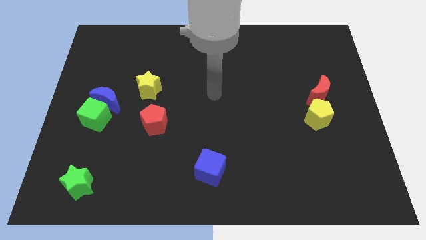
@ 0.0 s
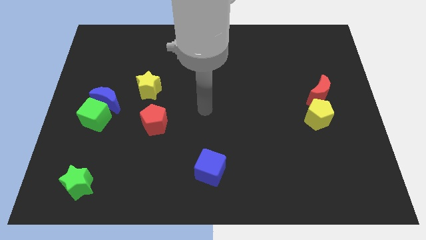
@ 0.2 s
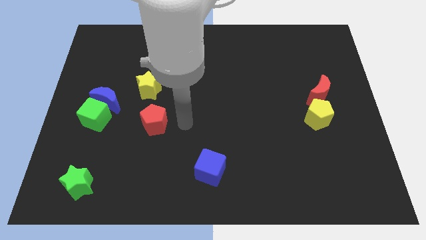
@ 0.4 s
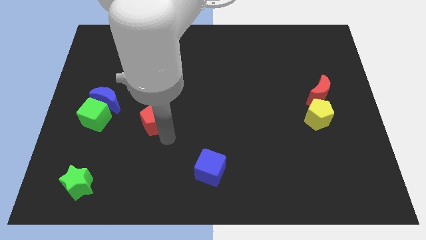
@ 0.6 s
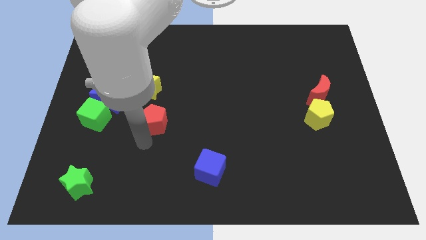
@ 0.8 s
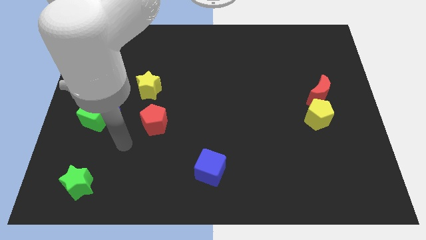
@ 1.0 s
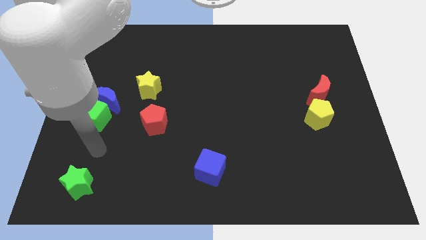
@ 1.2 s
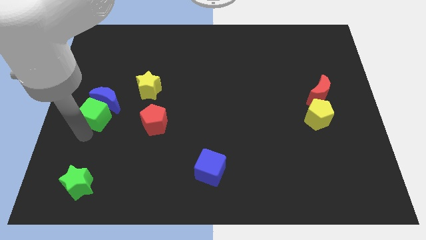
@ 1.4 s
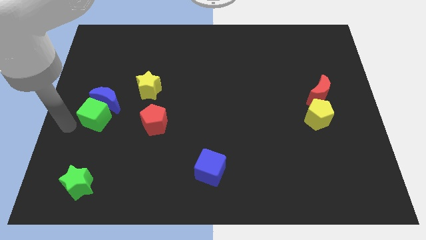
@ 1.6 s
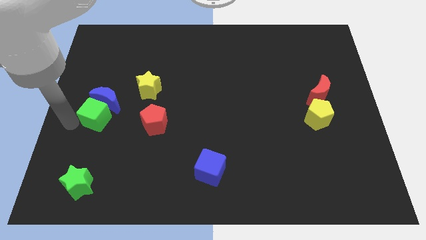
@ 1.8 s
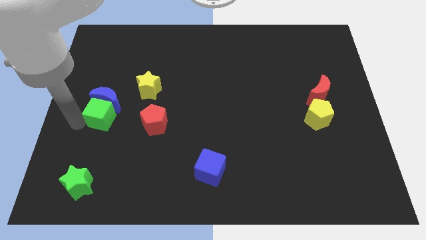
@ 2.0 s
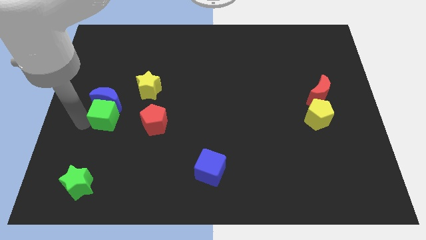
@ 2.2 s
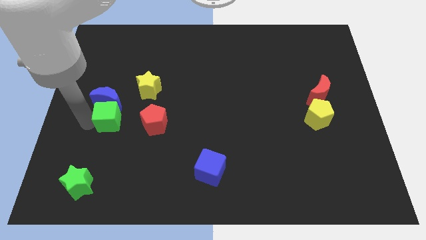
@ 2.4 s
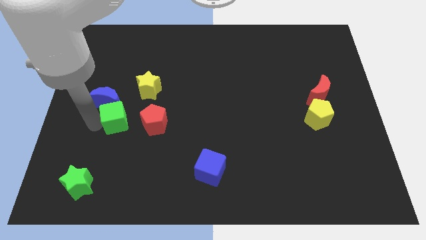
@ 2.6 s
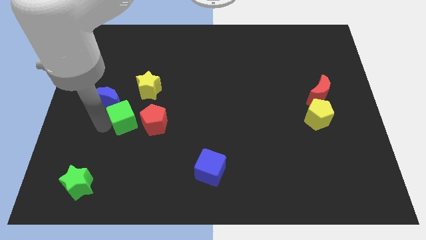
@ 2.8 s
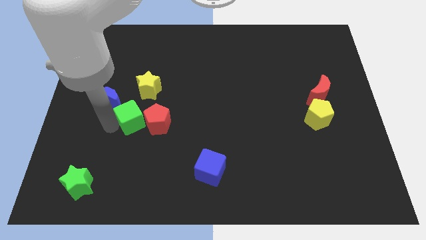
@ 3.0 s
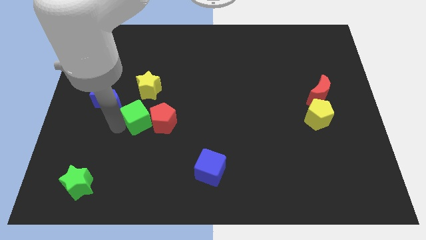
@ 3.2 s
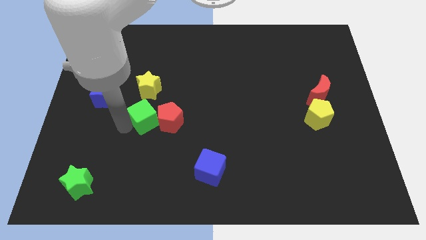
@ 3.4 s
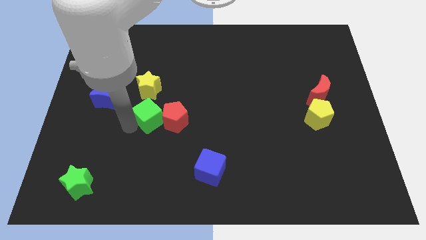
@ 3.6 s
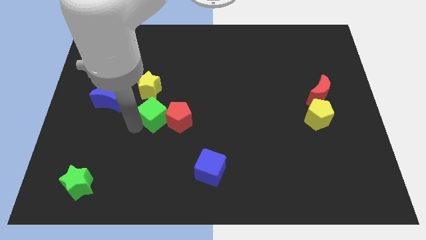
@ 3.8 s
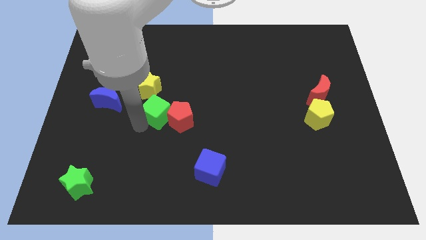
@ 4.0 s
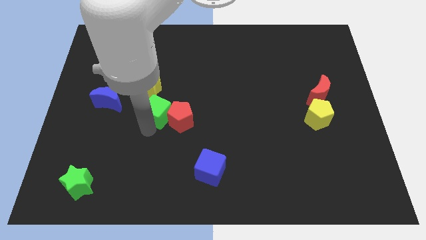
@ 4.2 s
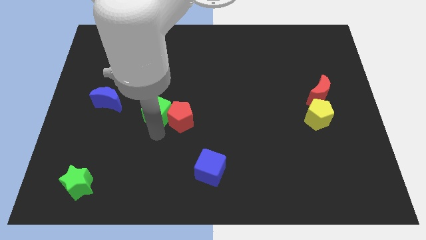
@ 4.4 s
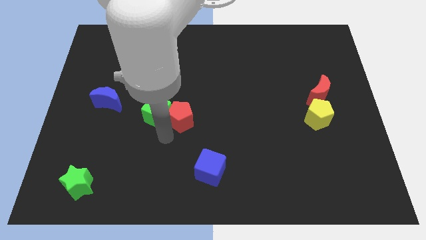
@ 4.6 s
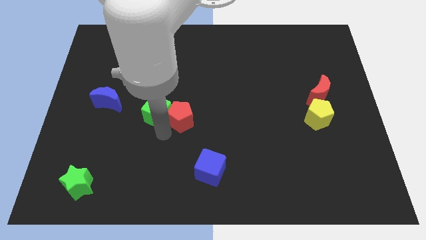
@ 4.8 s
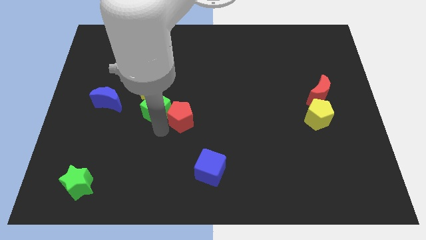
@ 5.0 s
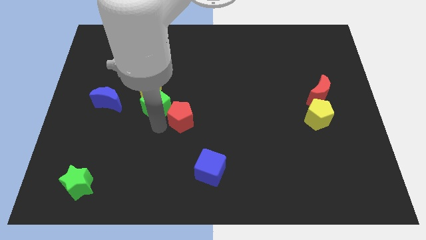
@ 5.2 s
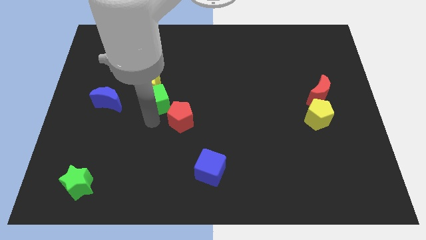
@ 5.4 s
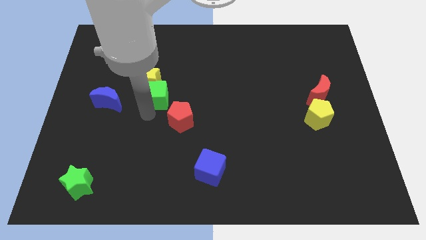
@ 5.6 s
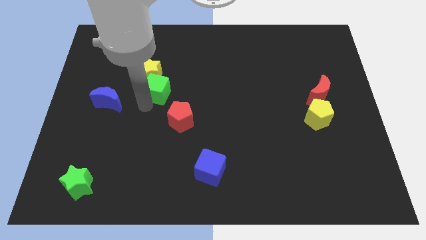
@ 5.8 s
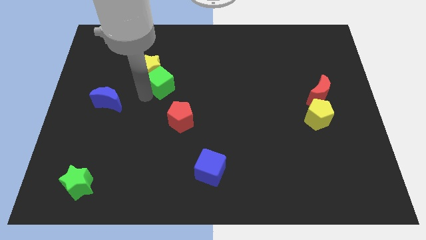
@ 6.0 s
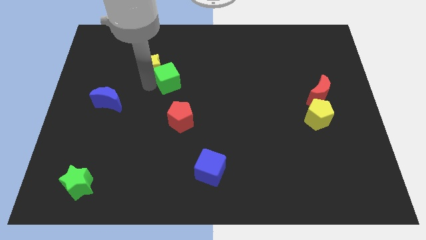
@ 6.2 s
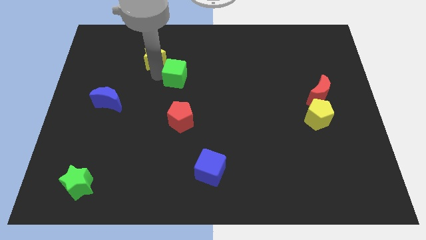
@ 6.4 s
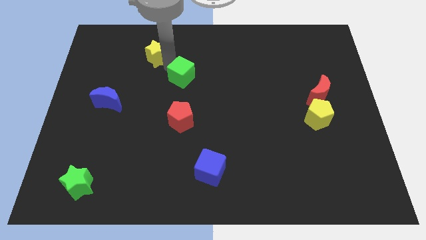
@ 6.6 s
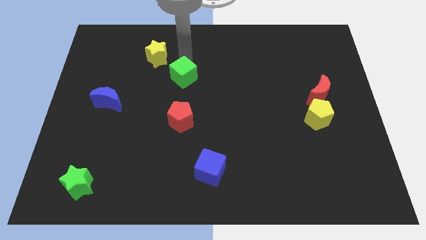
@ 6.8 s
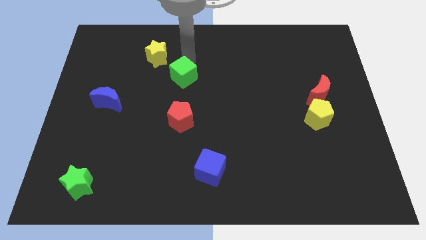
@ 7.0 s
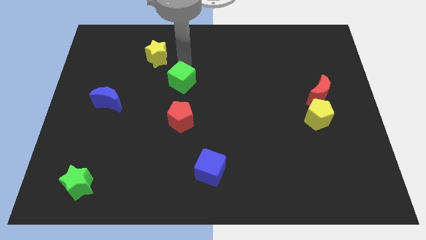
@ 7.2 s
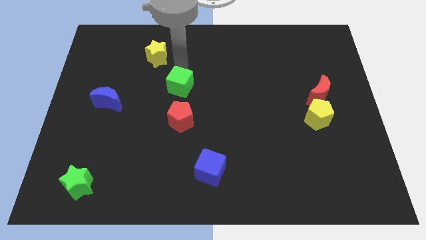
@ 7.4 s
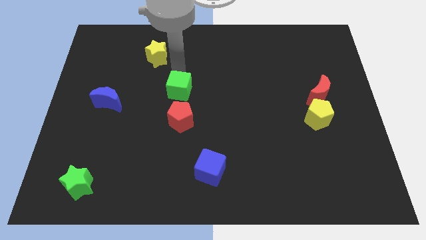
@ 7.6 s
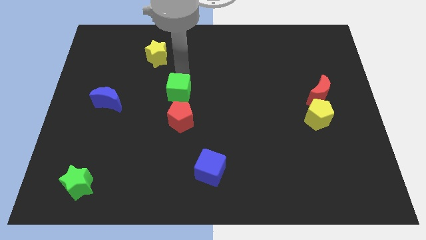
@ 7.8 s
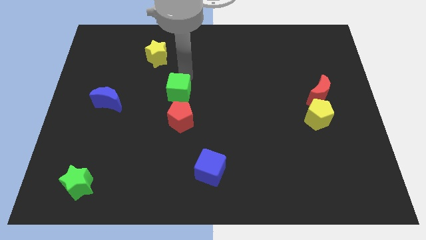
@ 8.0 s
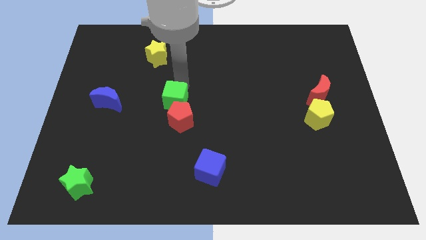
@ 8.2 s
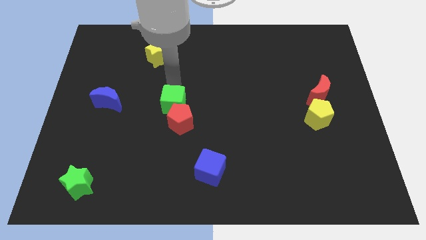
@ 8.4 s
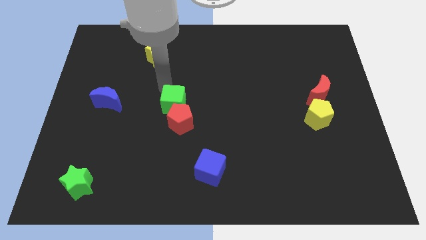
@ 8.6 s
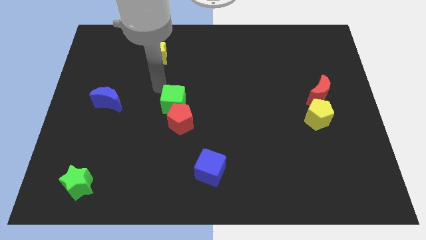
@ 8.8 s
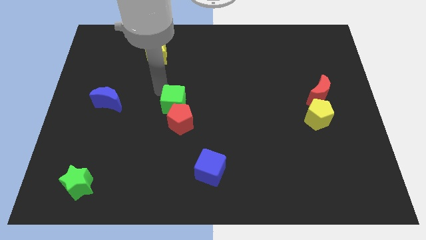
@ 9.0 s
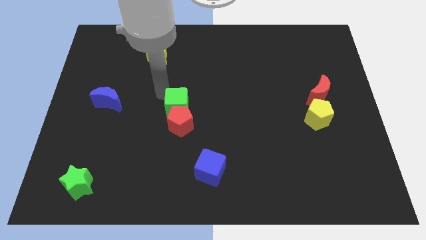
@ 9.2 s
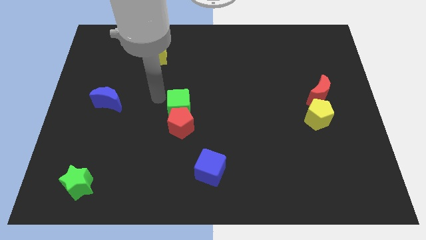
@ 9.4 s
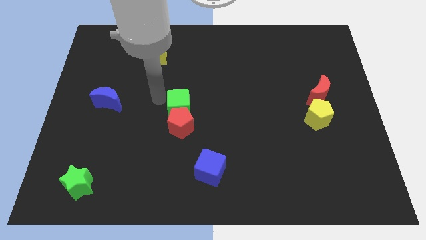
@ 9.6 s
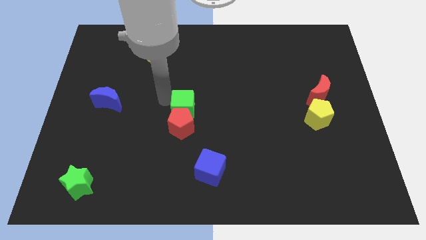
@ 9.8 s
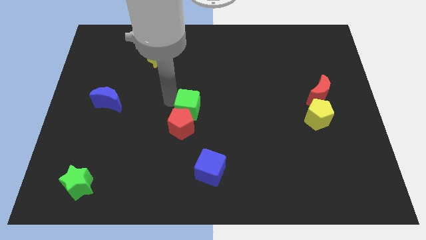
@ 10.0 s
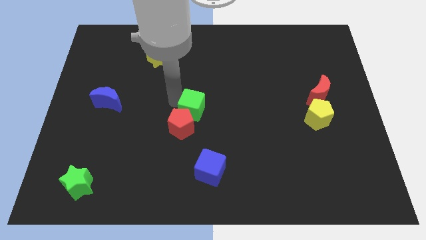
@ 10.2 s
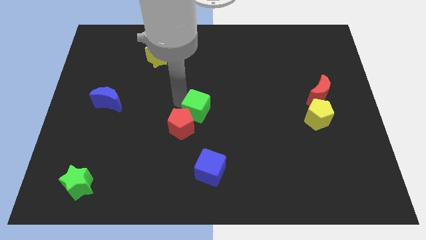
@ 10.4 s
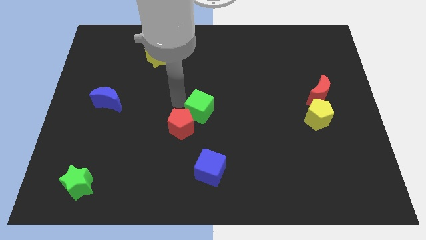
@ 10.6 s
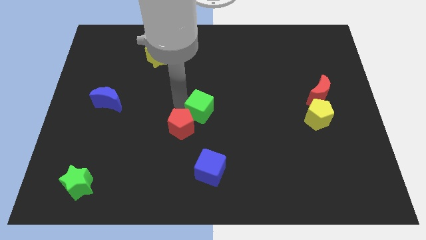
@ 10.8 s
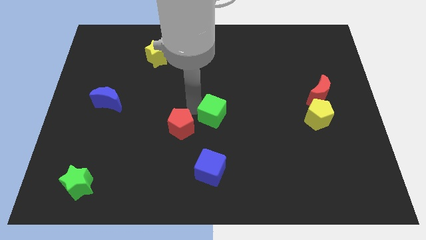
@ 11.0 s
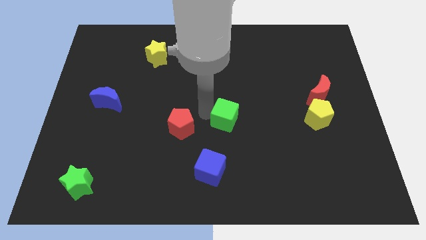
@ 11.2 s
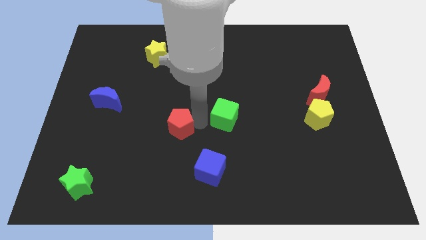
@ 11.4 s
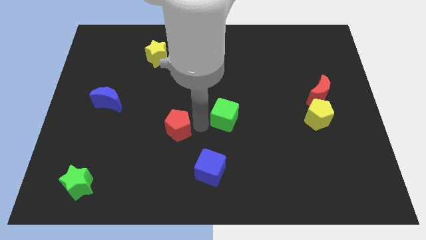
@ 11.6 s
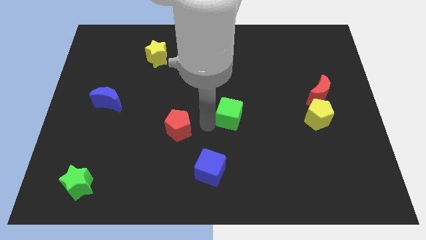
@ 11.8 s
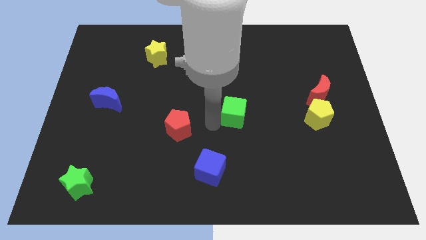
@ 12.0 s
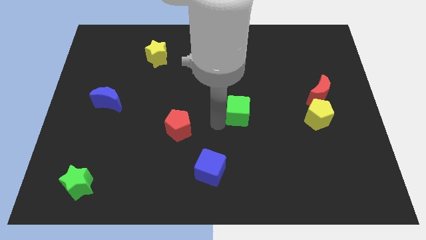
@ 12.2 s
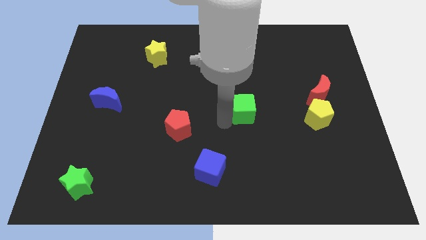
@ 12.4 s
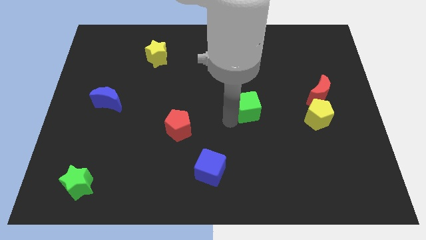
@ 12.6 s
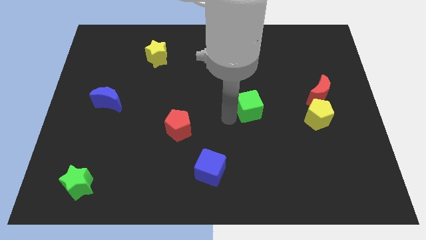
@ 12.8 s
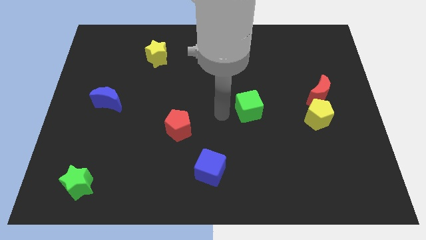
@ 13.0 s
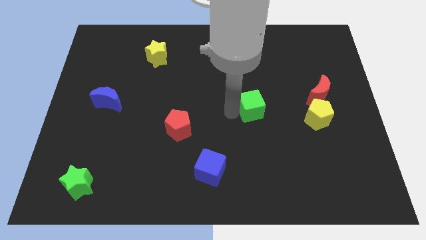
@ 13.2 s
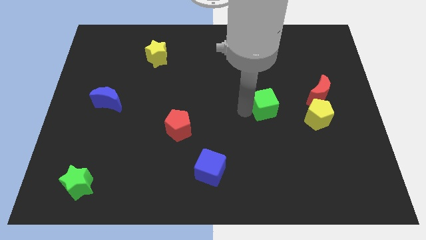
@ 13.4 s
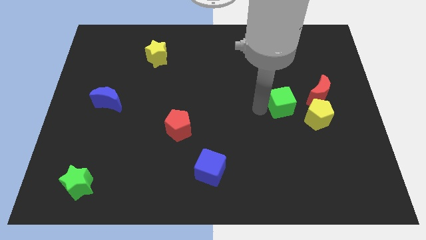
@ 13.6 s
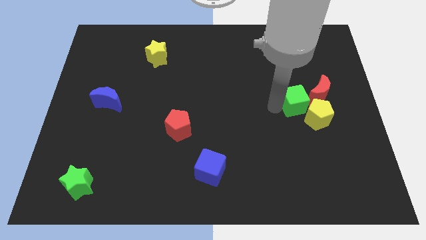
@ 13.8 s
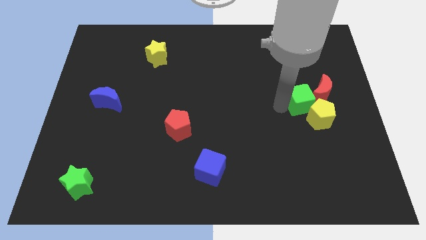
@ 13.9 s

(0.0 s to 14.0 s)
put the green cube next to the red moon
